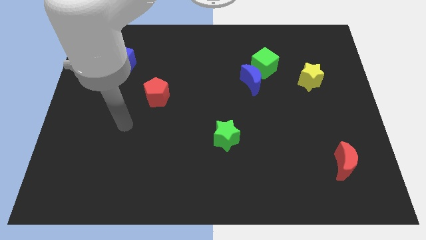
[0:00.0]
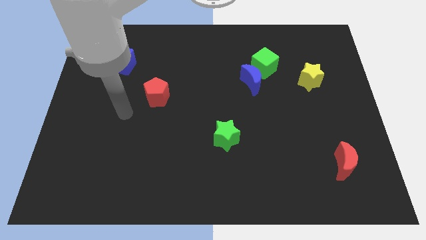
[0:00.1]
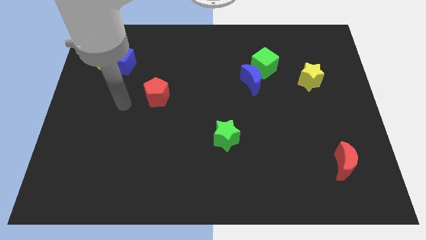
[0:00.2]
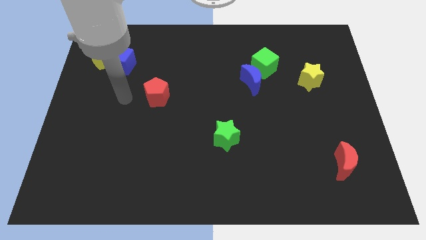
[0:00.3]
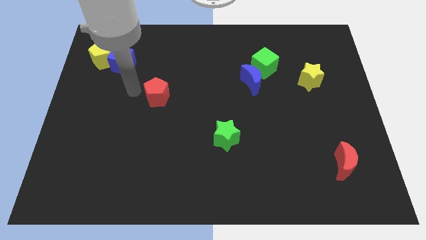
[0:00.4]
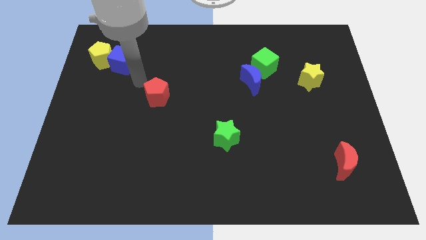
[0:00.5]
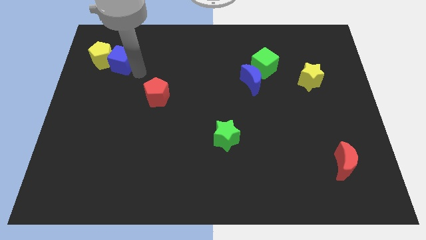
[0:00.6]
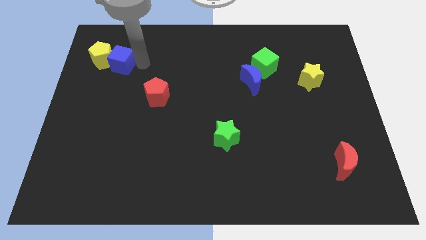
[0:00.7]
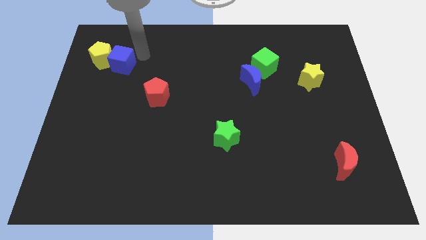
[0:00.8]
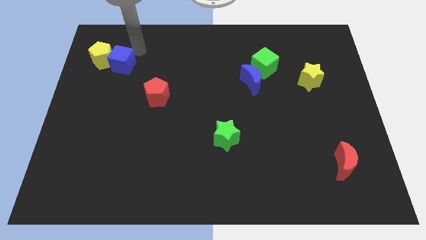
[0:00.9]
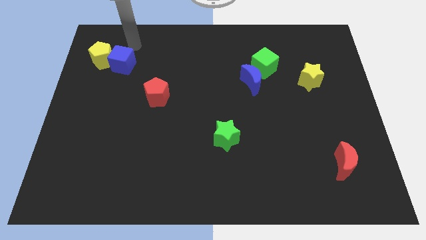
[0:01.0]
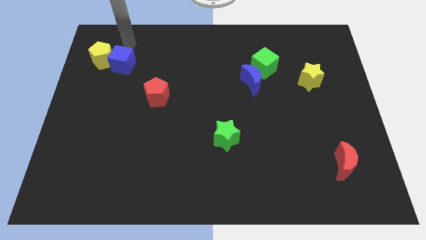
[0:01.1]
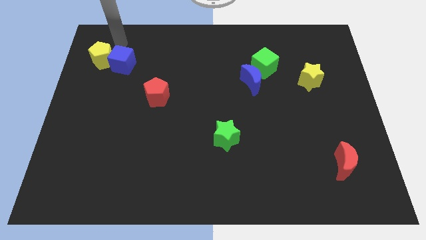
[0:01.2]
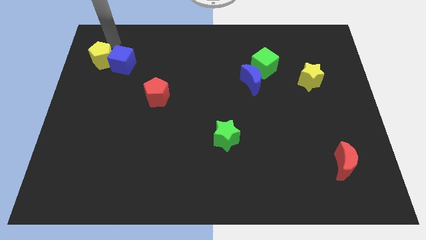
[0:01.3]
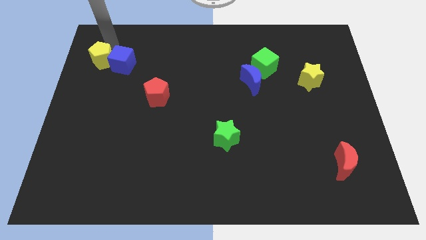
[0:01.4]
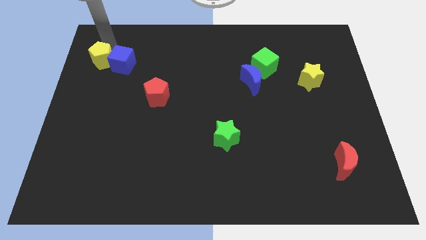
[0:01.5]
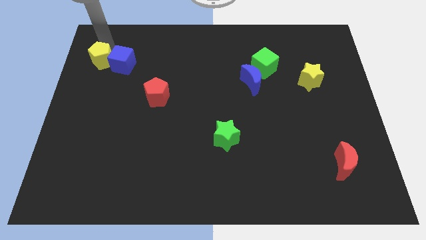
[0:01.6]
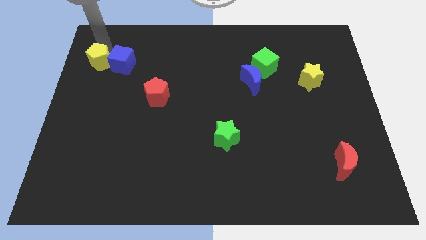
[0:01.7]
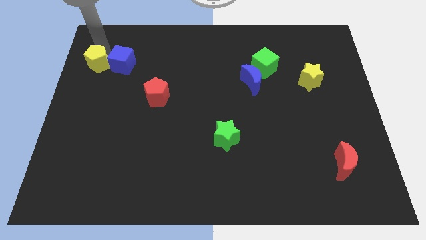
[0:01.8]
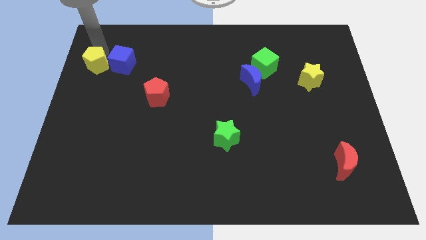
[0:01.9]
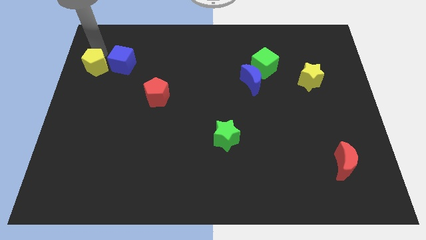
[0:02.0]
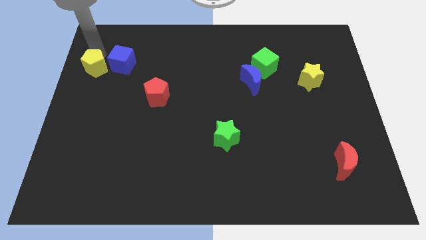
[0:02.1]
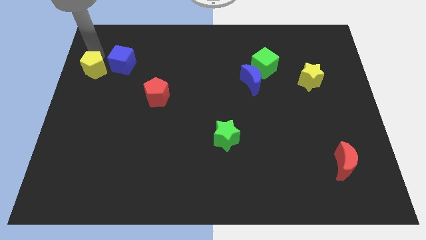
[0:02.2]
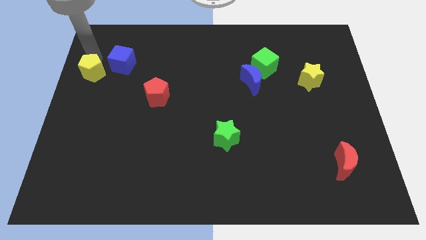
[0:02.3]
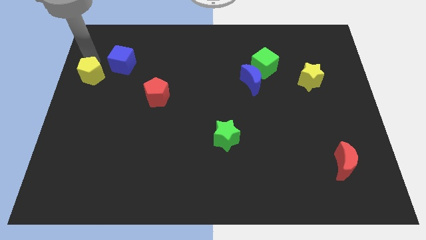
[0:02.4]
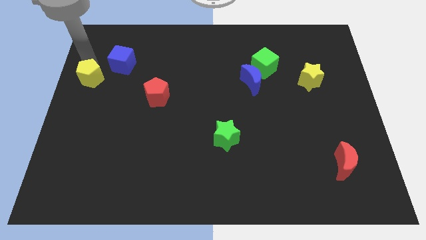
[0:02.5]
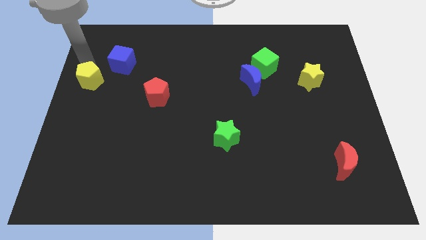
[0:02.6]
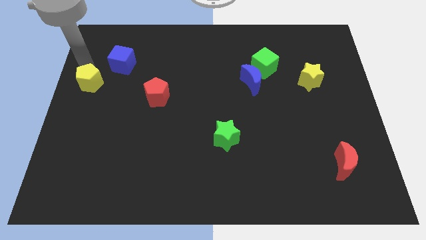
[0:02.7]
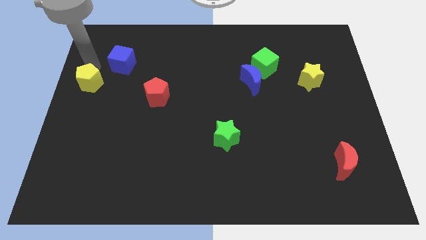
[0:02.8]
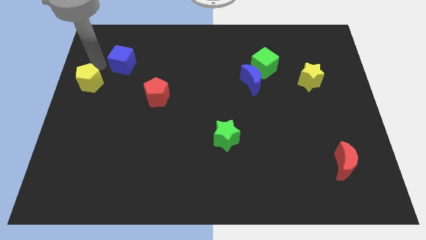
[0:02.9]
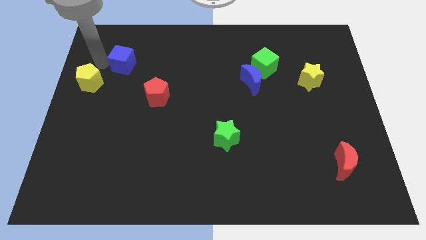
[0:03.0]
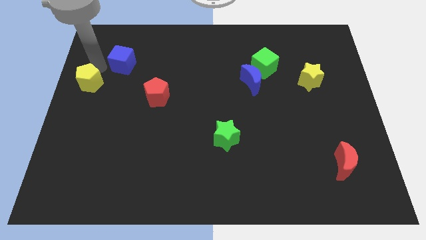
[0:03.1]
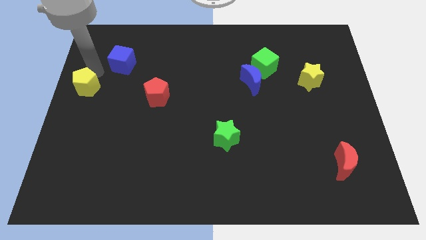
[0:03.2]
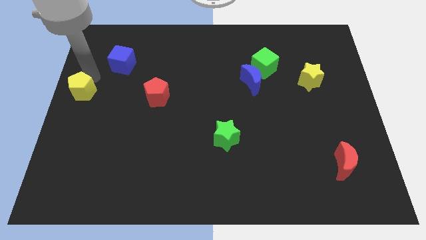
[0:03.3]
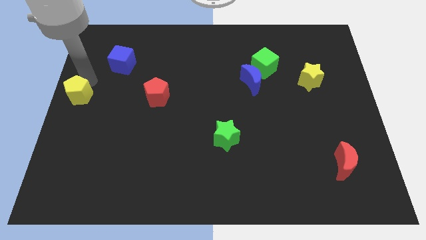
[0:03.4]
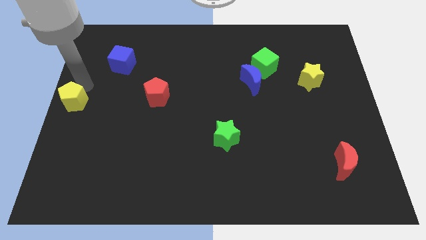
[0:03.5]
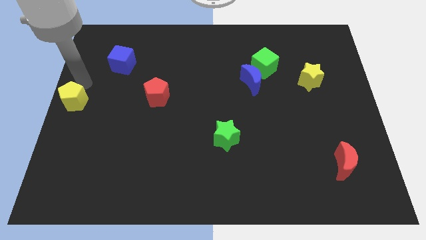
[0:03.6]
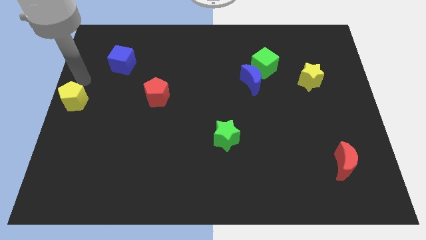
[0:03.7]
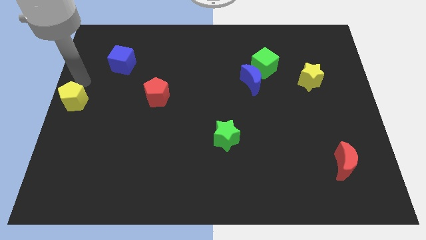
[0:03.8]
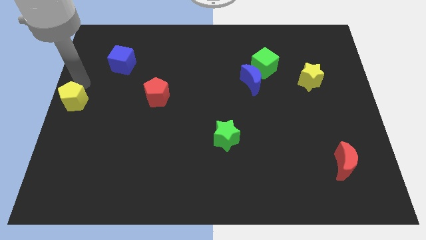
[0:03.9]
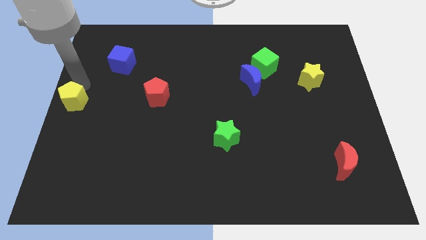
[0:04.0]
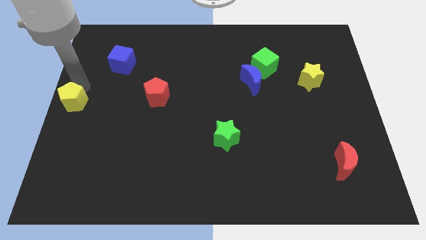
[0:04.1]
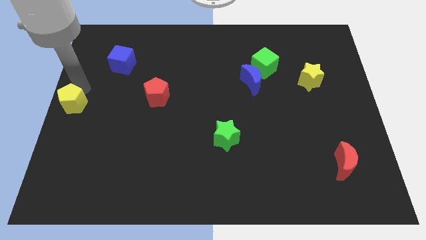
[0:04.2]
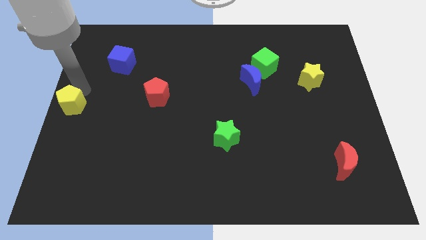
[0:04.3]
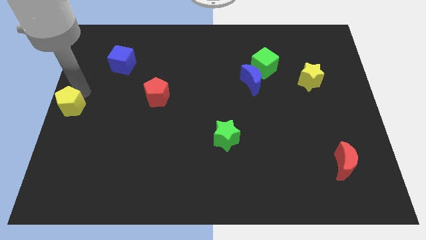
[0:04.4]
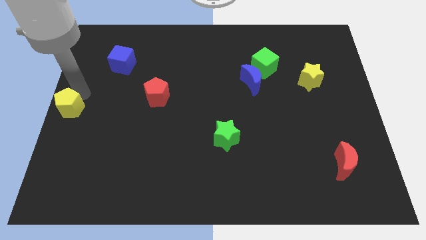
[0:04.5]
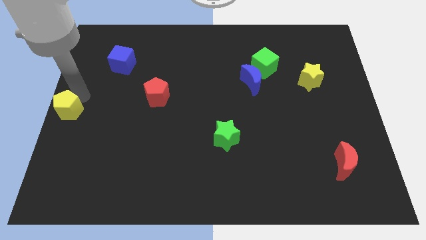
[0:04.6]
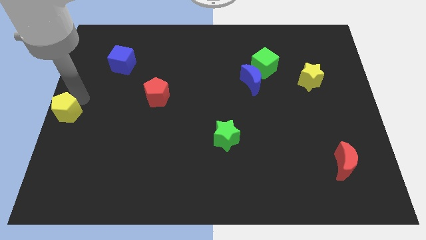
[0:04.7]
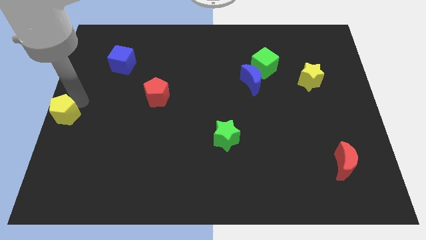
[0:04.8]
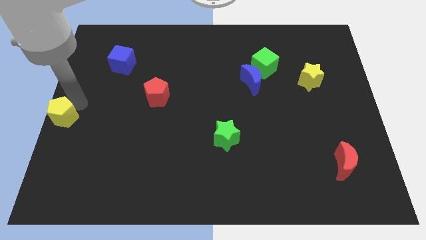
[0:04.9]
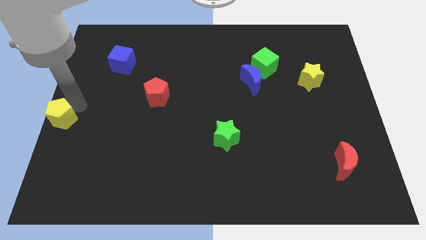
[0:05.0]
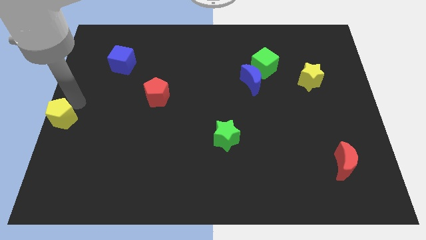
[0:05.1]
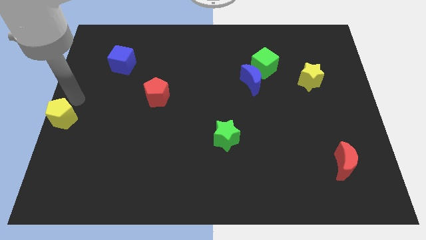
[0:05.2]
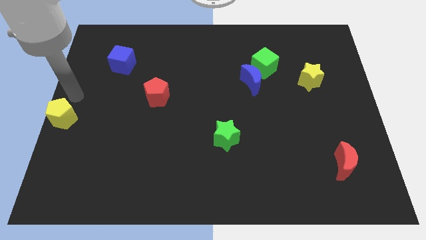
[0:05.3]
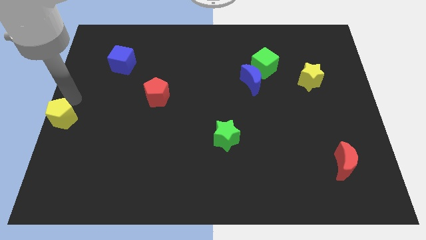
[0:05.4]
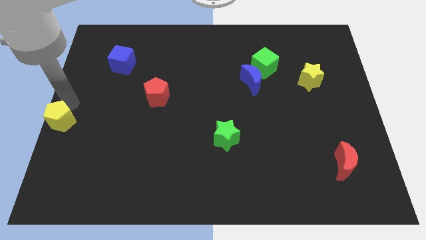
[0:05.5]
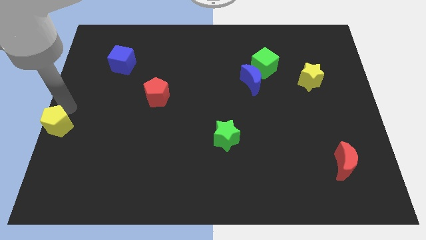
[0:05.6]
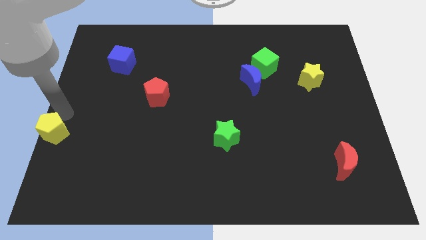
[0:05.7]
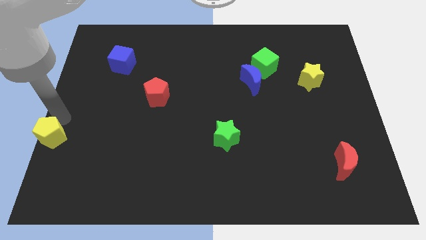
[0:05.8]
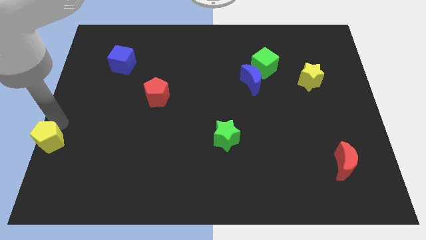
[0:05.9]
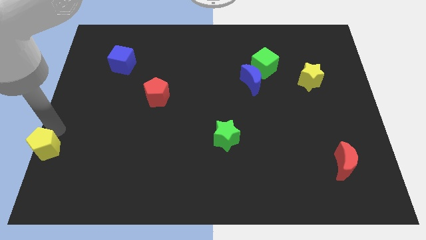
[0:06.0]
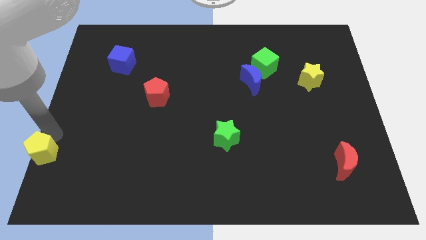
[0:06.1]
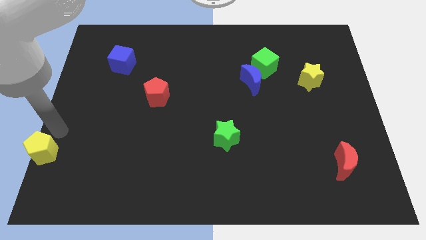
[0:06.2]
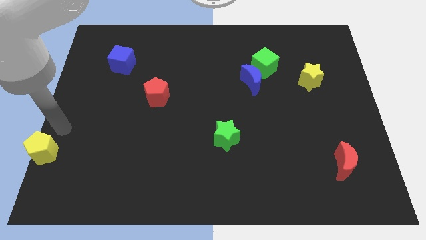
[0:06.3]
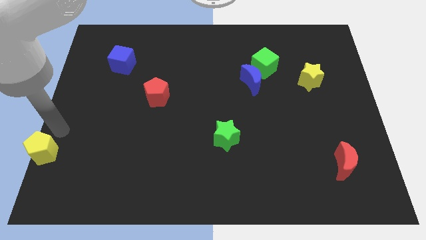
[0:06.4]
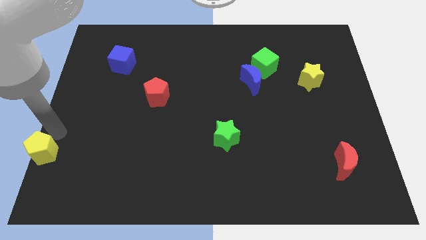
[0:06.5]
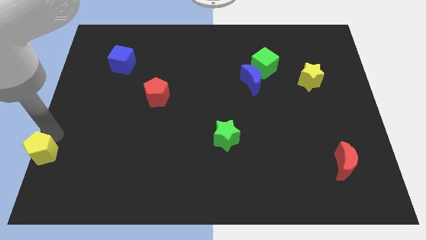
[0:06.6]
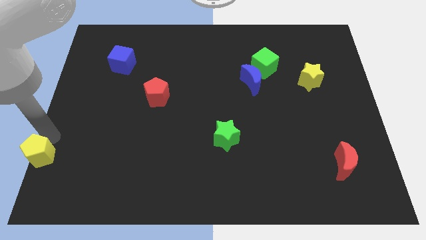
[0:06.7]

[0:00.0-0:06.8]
slide the yellow pentagon to the bottom left of the board
